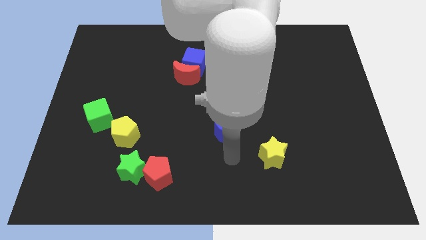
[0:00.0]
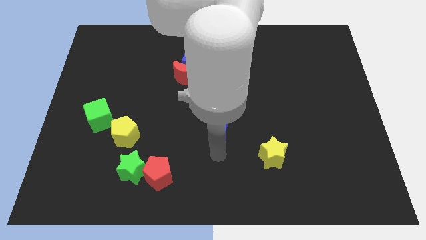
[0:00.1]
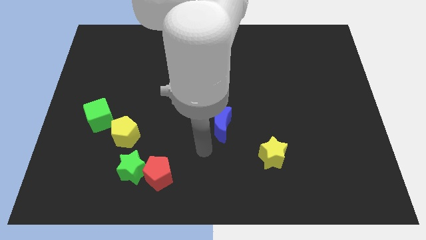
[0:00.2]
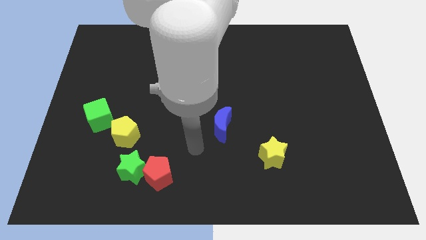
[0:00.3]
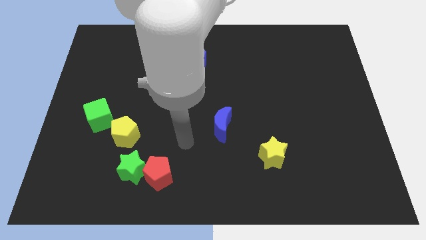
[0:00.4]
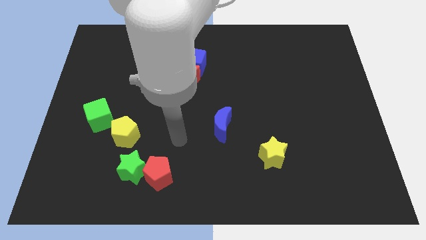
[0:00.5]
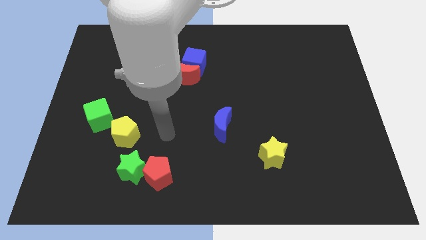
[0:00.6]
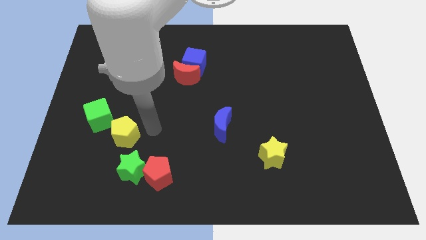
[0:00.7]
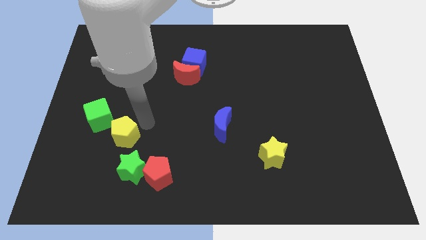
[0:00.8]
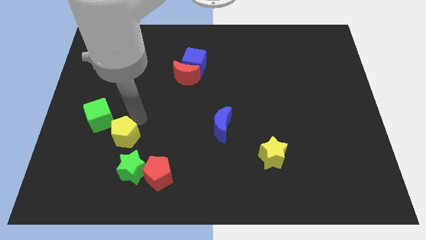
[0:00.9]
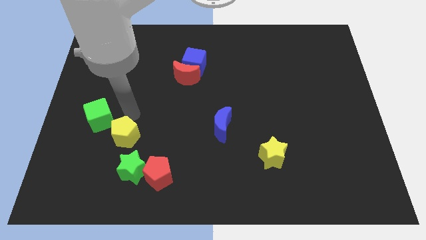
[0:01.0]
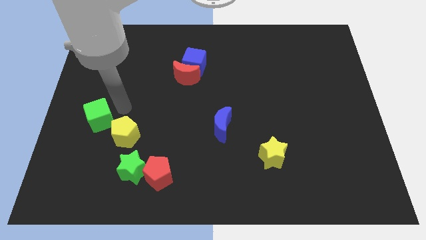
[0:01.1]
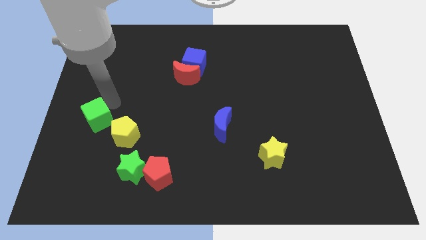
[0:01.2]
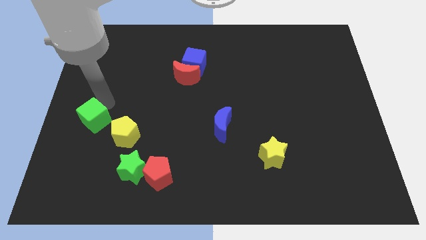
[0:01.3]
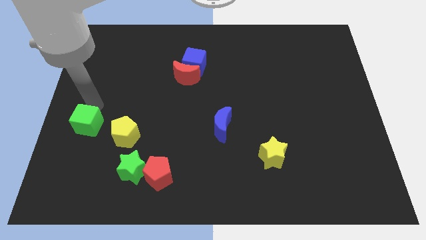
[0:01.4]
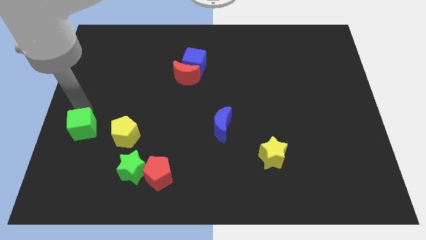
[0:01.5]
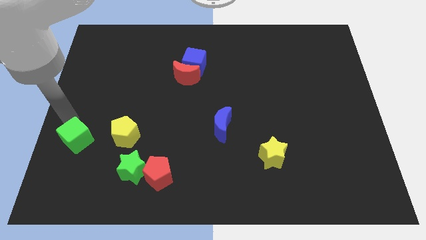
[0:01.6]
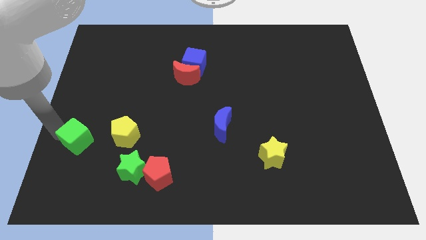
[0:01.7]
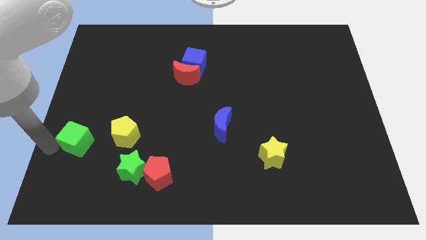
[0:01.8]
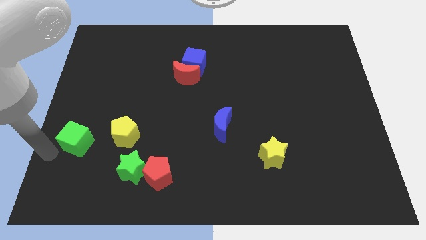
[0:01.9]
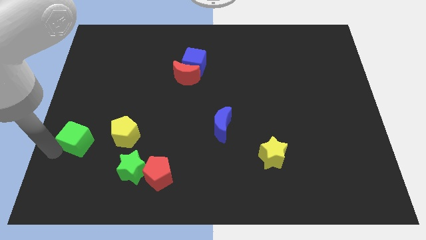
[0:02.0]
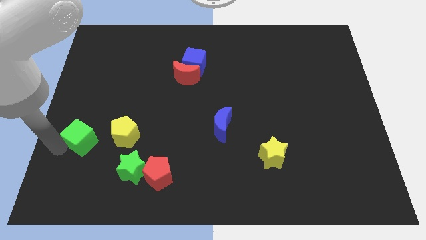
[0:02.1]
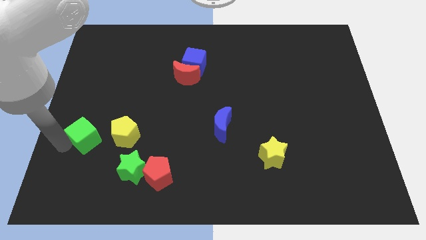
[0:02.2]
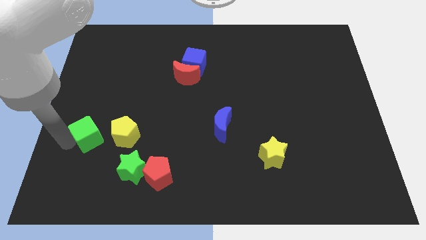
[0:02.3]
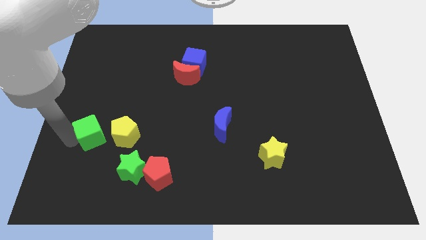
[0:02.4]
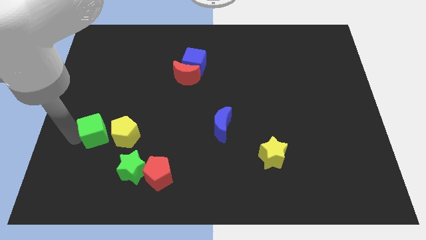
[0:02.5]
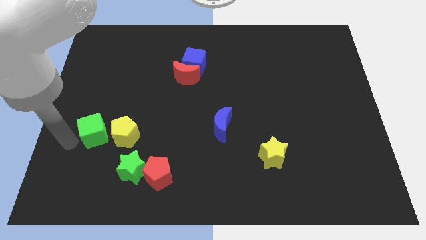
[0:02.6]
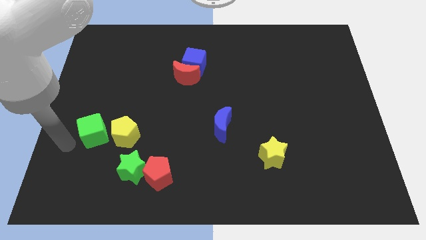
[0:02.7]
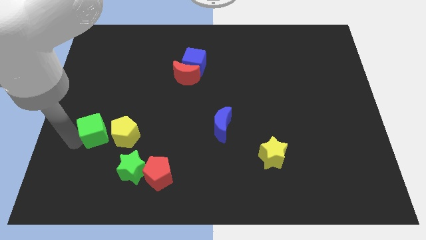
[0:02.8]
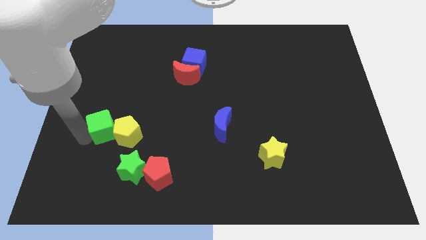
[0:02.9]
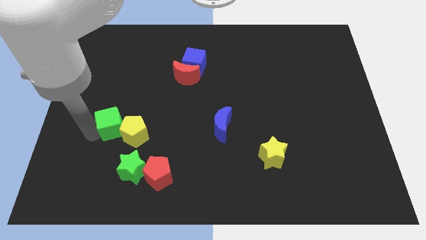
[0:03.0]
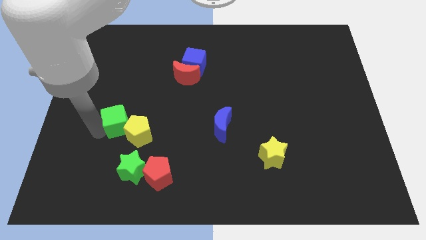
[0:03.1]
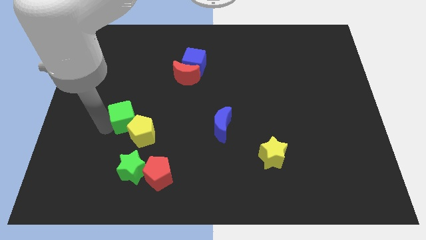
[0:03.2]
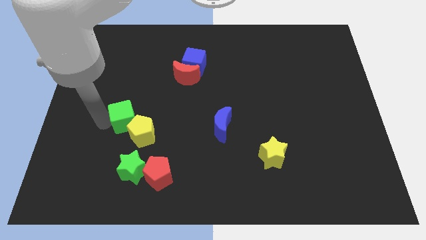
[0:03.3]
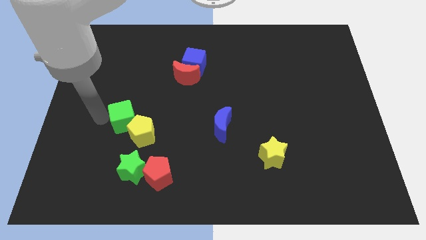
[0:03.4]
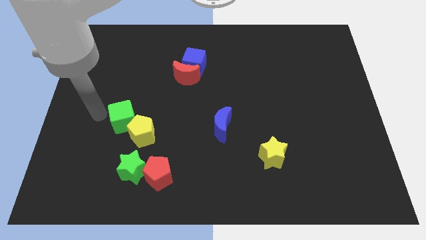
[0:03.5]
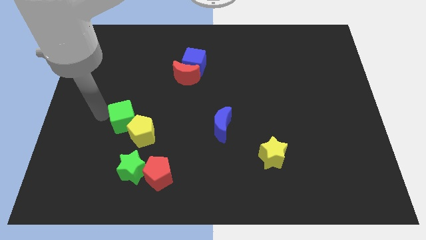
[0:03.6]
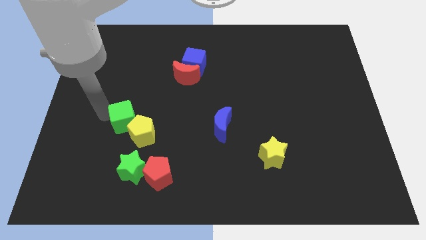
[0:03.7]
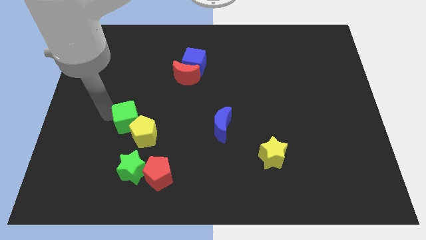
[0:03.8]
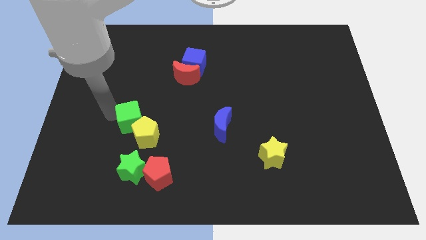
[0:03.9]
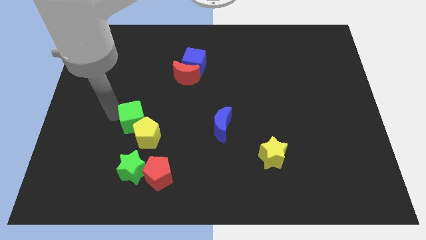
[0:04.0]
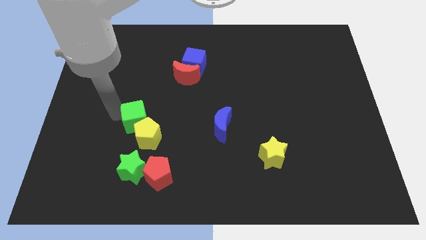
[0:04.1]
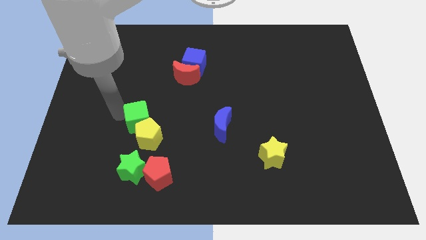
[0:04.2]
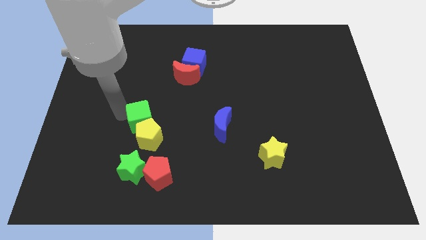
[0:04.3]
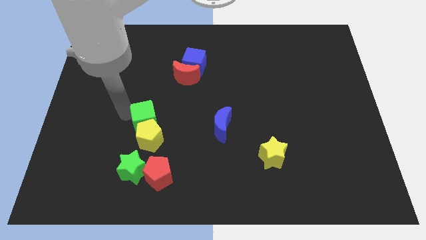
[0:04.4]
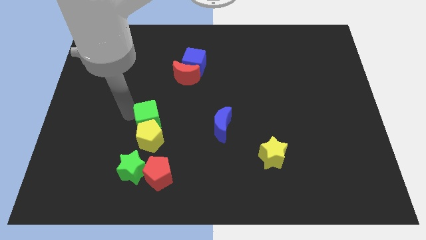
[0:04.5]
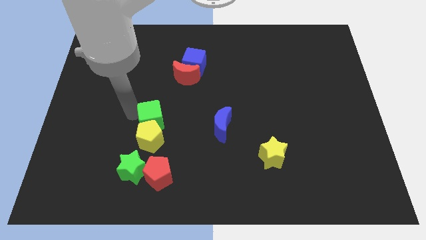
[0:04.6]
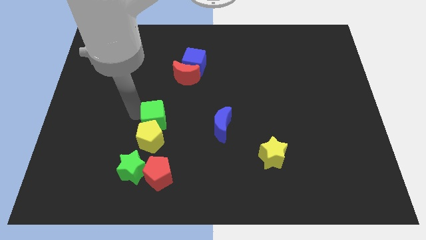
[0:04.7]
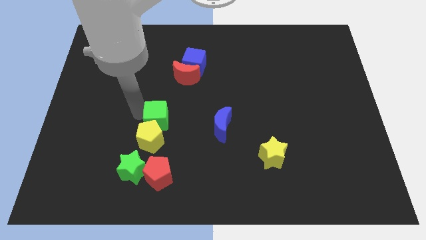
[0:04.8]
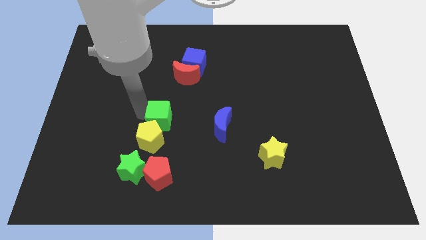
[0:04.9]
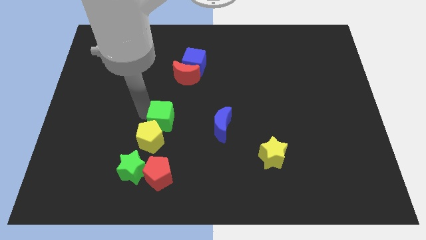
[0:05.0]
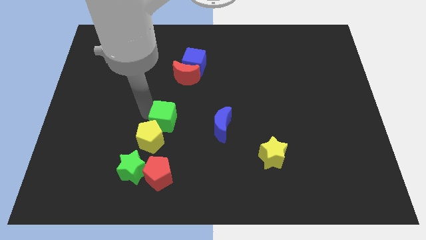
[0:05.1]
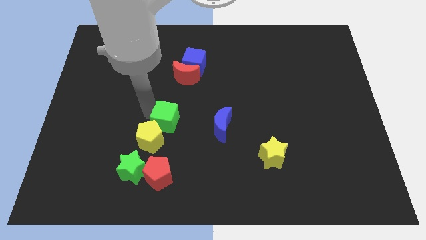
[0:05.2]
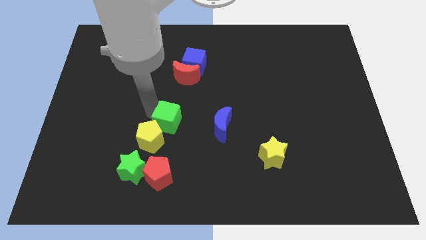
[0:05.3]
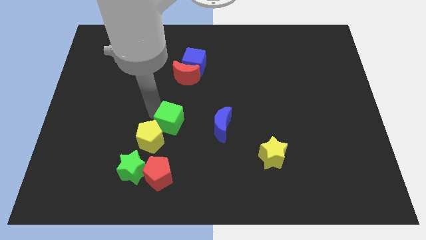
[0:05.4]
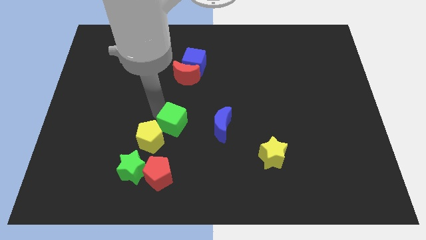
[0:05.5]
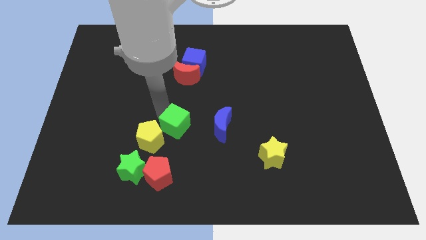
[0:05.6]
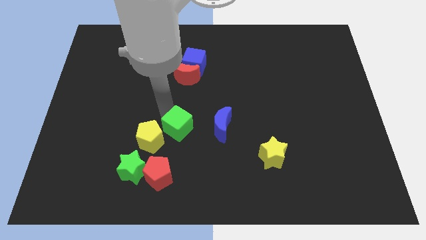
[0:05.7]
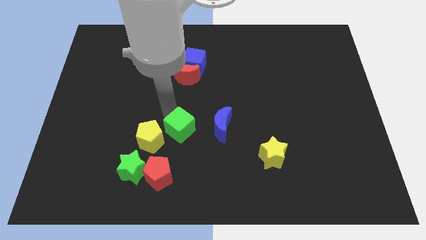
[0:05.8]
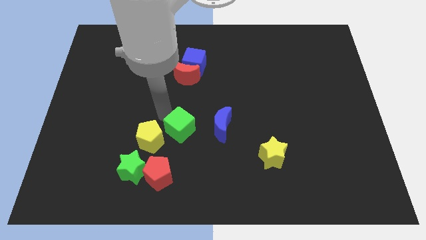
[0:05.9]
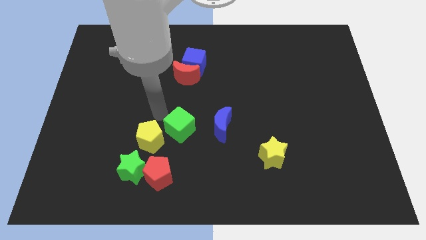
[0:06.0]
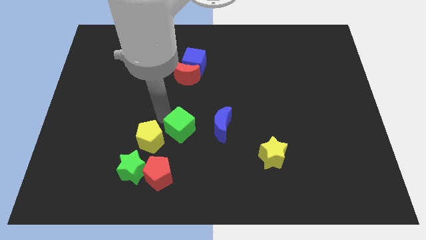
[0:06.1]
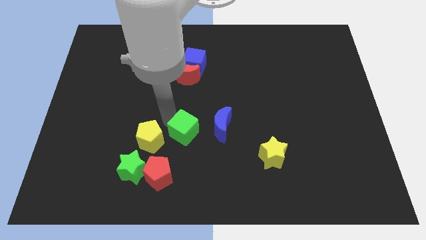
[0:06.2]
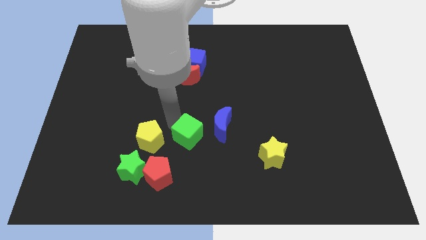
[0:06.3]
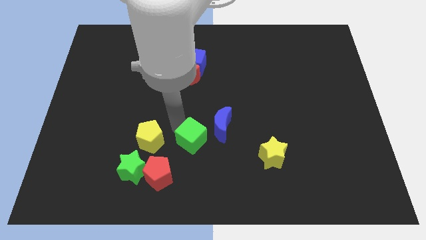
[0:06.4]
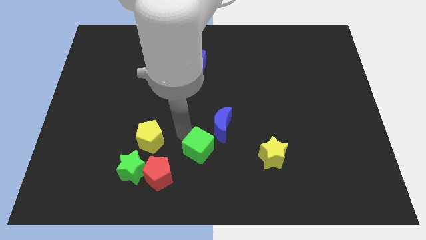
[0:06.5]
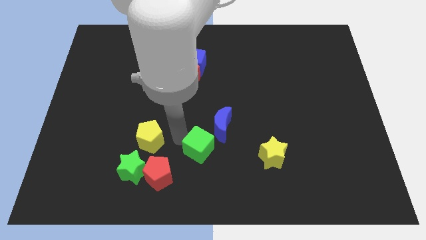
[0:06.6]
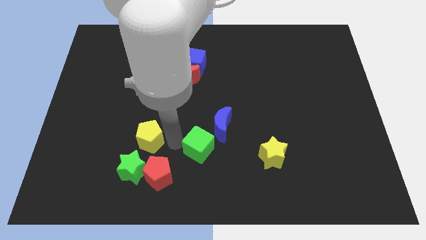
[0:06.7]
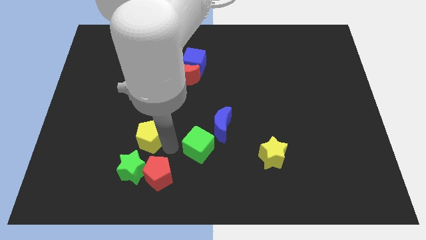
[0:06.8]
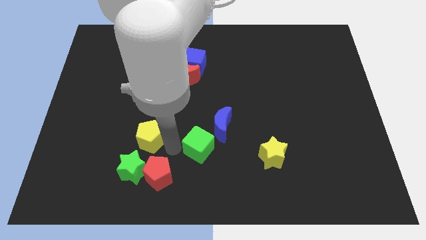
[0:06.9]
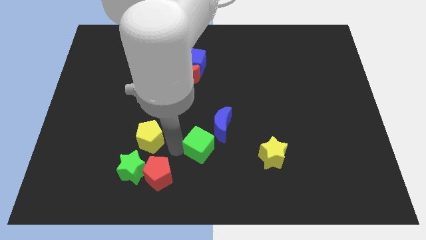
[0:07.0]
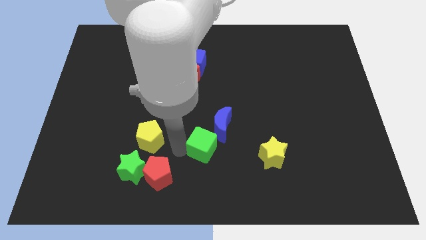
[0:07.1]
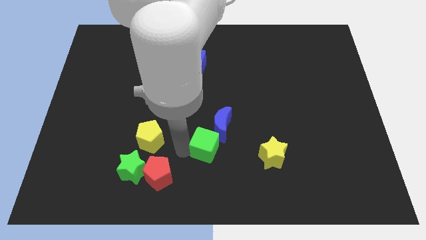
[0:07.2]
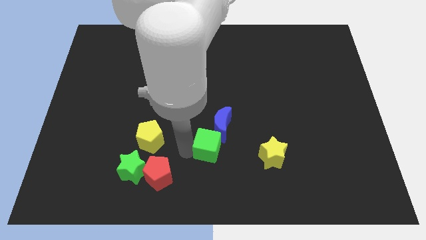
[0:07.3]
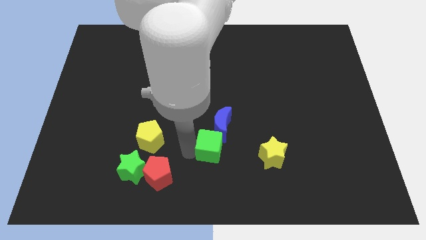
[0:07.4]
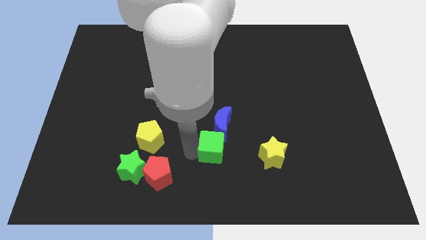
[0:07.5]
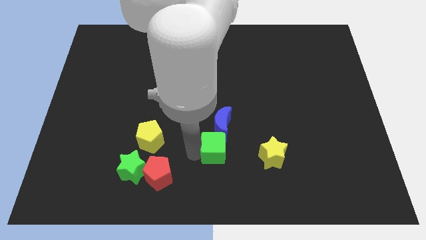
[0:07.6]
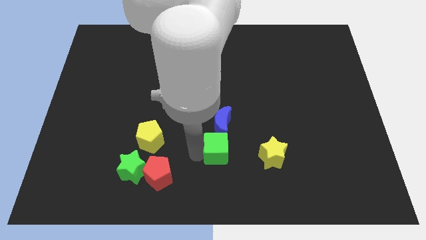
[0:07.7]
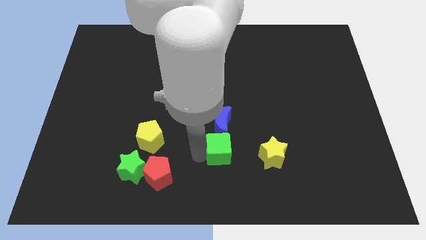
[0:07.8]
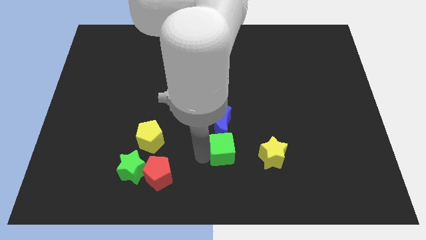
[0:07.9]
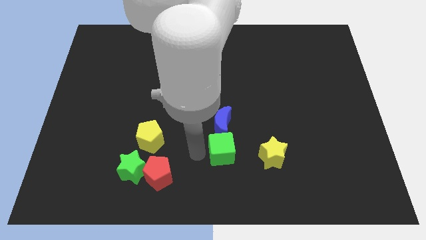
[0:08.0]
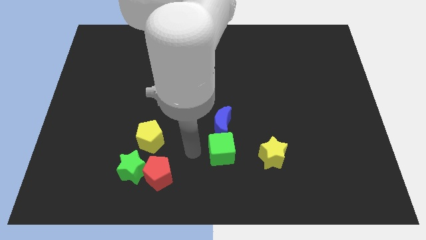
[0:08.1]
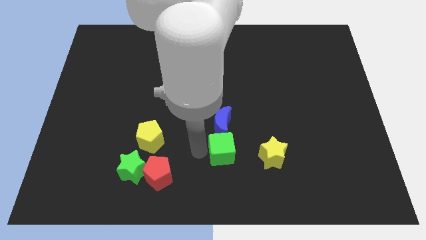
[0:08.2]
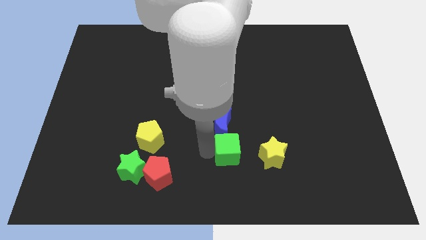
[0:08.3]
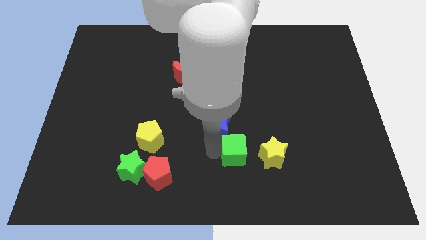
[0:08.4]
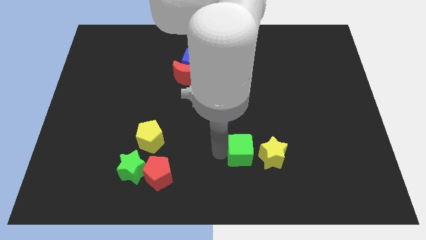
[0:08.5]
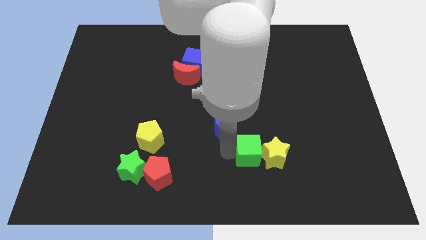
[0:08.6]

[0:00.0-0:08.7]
move the green cube next to the yellow star
